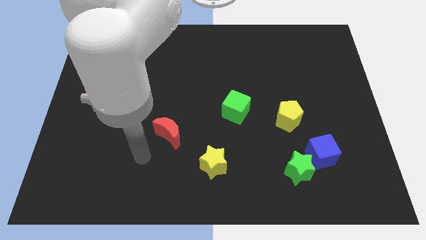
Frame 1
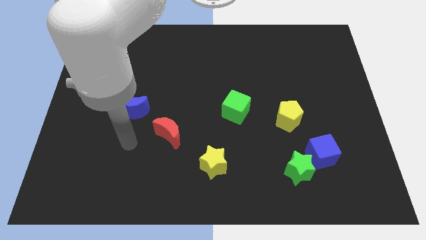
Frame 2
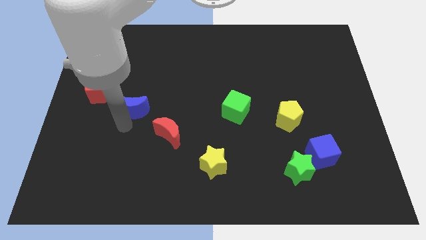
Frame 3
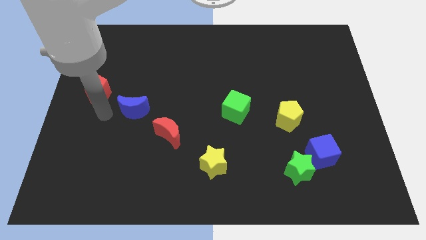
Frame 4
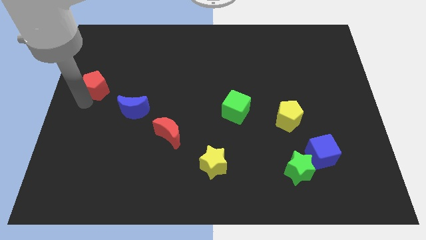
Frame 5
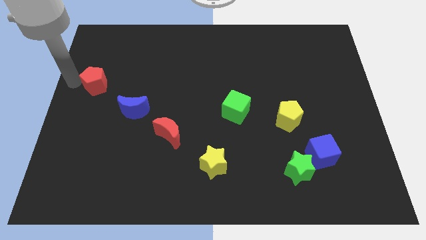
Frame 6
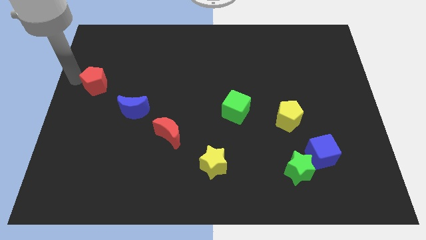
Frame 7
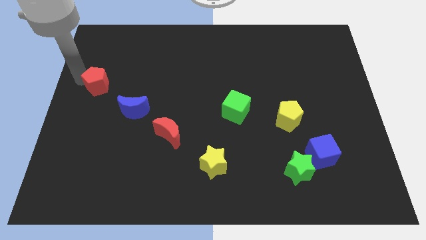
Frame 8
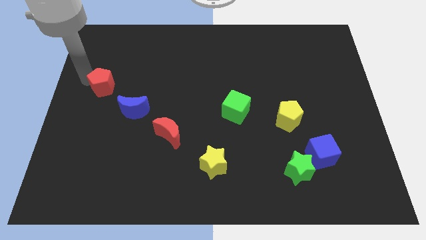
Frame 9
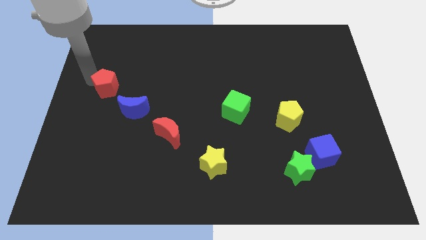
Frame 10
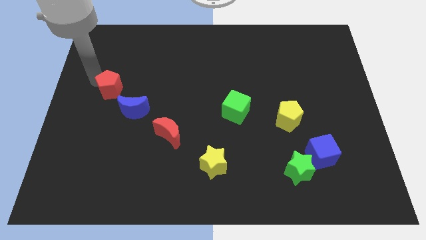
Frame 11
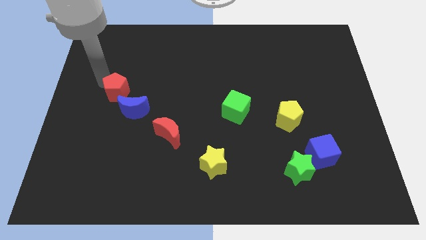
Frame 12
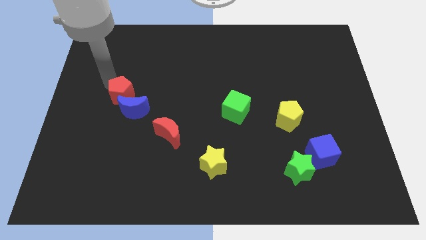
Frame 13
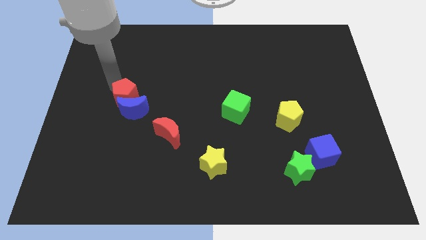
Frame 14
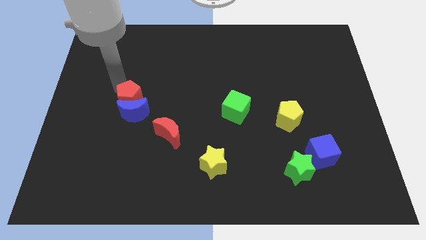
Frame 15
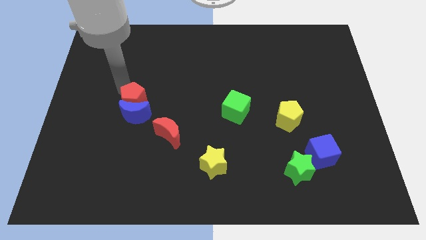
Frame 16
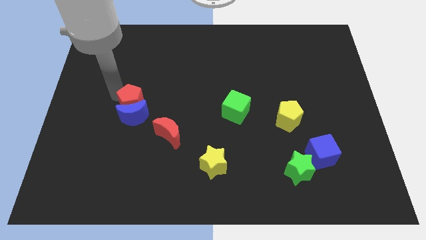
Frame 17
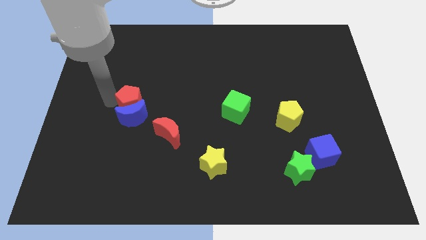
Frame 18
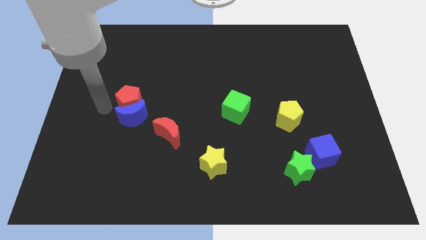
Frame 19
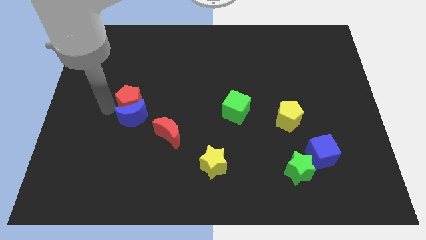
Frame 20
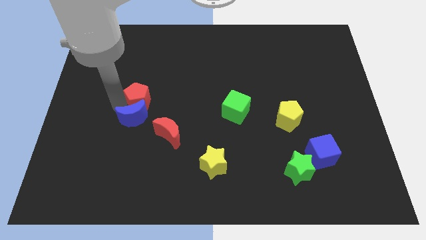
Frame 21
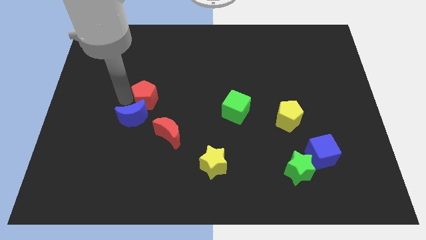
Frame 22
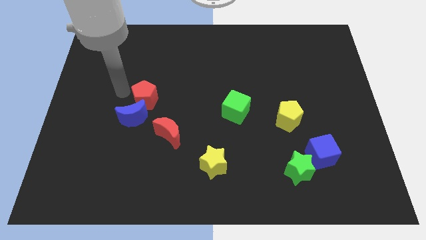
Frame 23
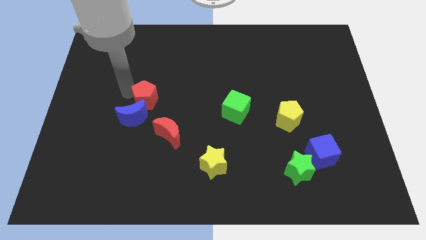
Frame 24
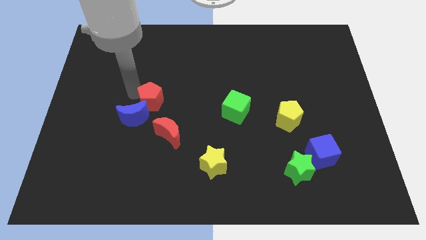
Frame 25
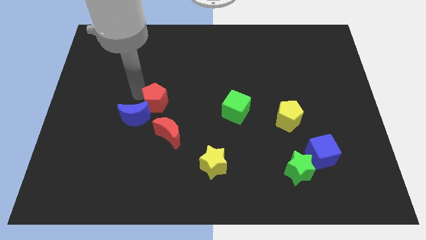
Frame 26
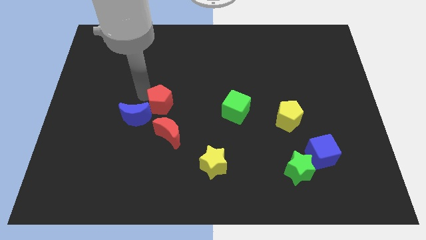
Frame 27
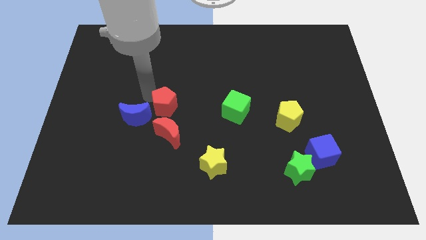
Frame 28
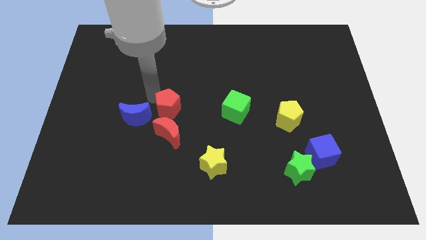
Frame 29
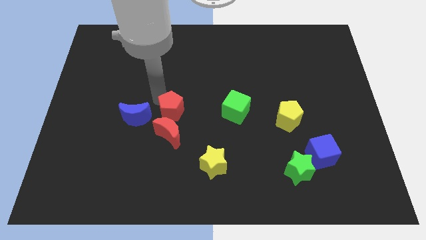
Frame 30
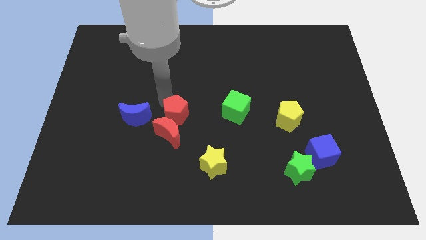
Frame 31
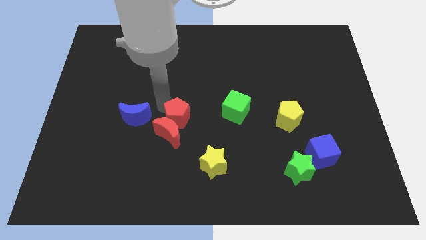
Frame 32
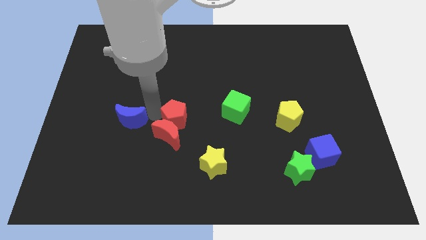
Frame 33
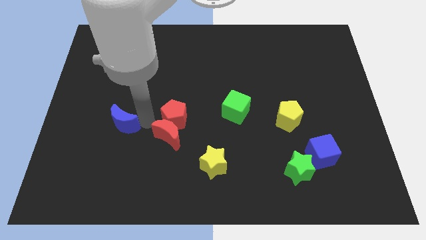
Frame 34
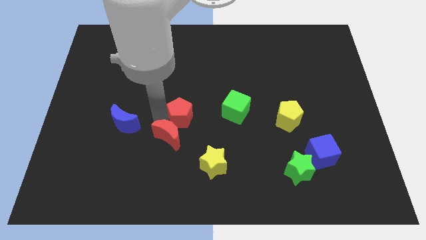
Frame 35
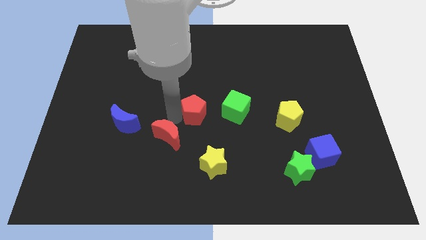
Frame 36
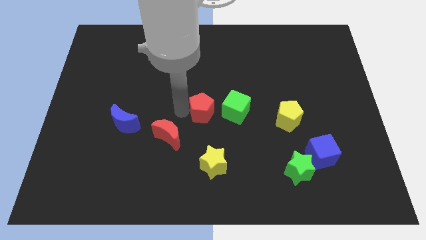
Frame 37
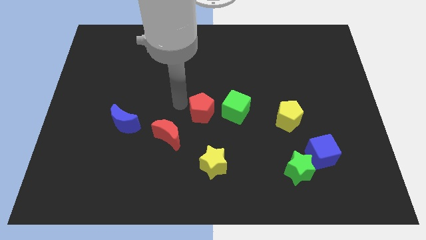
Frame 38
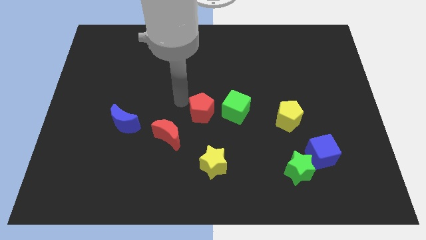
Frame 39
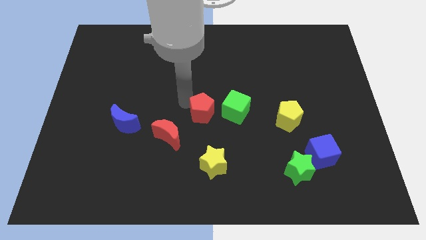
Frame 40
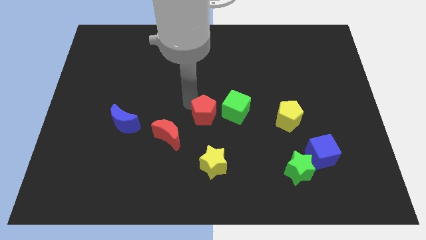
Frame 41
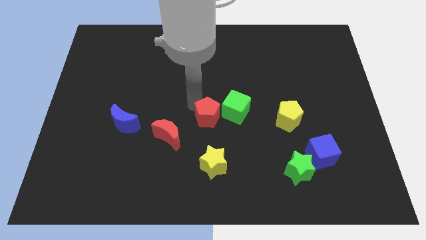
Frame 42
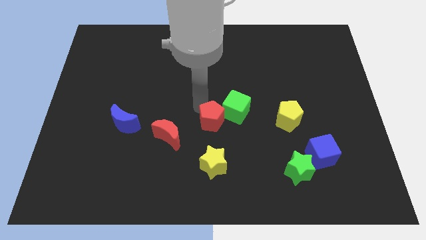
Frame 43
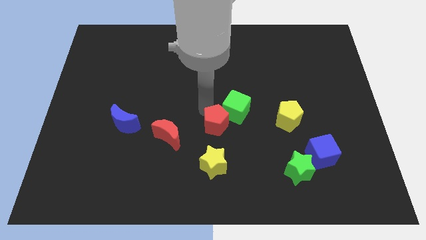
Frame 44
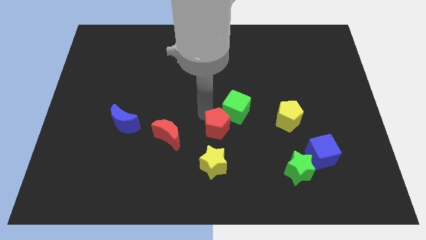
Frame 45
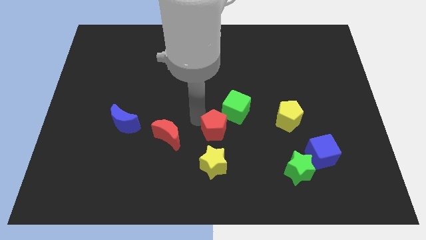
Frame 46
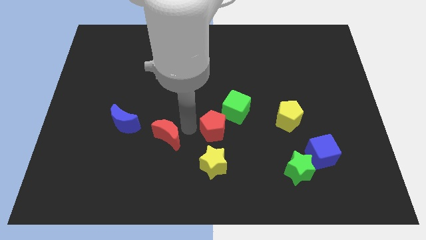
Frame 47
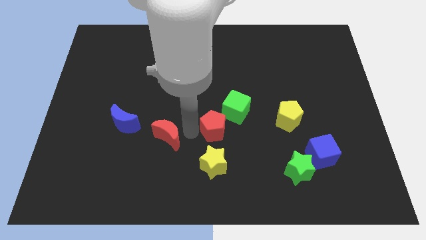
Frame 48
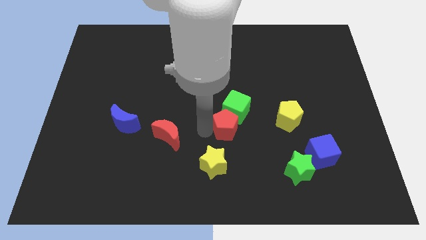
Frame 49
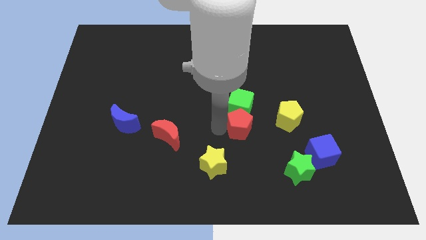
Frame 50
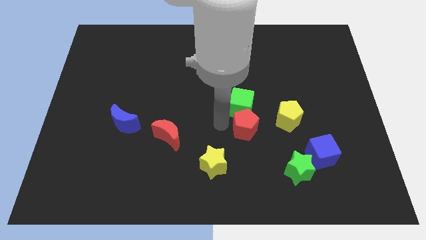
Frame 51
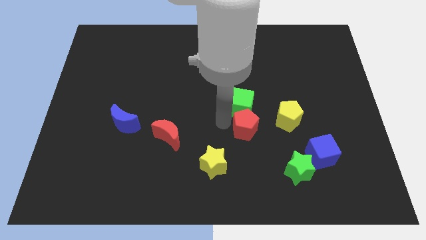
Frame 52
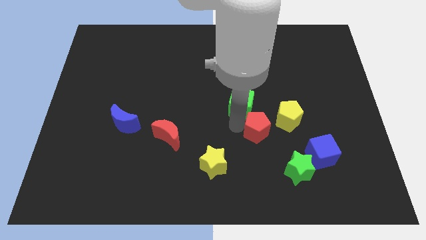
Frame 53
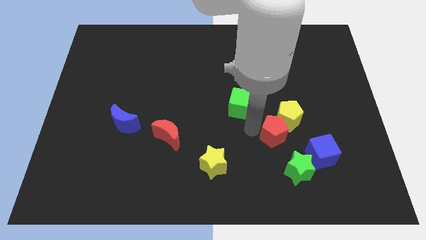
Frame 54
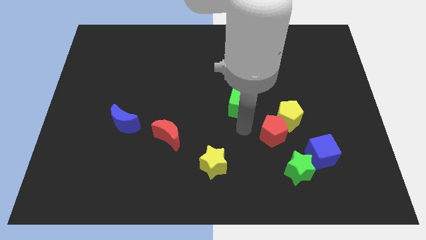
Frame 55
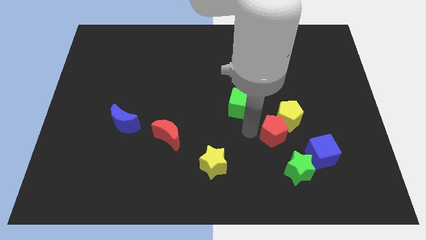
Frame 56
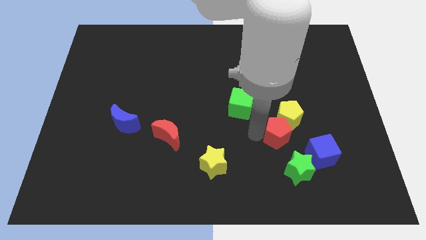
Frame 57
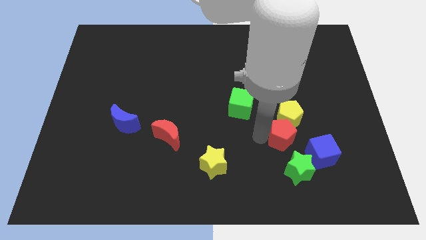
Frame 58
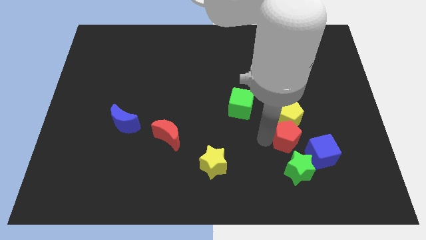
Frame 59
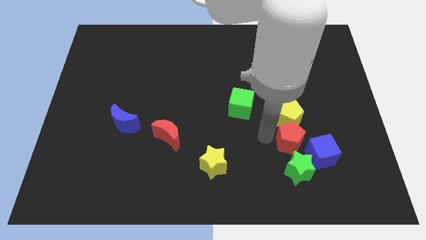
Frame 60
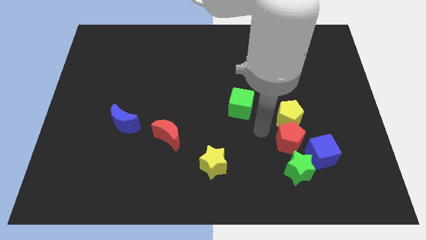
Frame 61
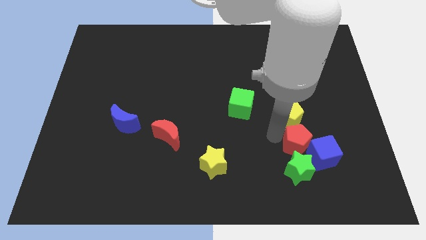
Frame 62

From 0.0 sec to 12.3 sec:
put the red pentagon to the blue cube
